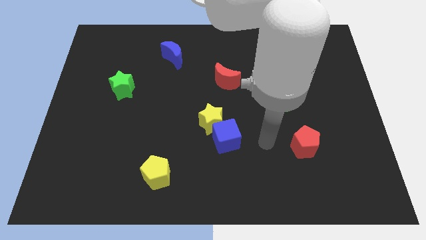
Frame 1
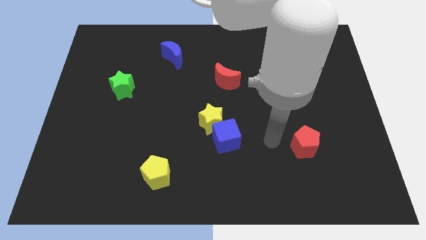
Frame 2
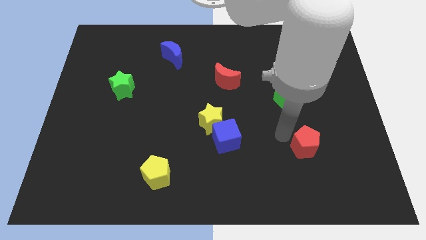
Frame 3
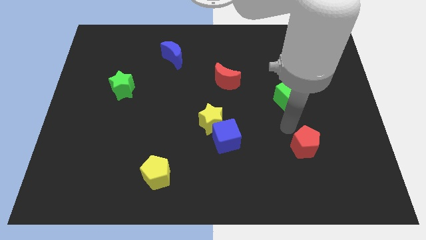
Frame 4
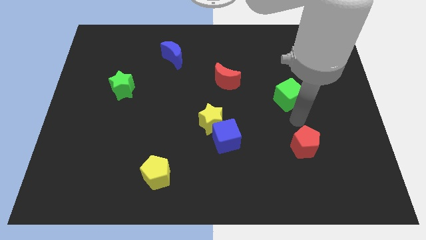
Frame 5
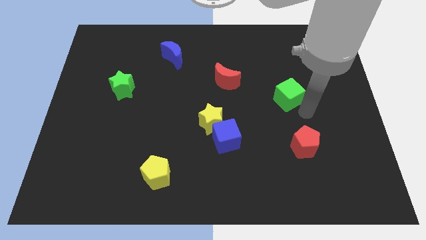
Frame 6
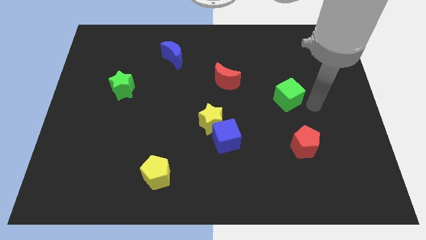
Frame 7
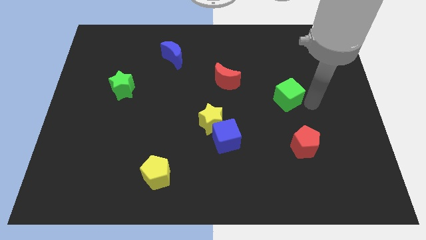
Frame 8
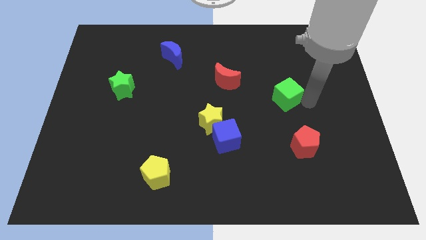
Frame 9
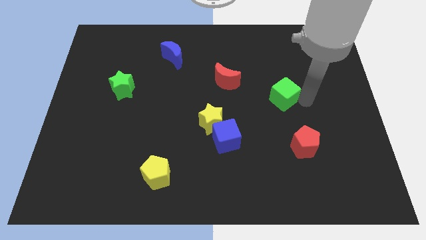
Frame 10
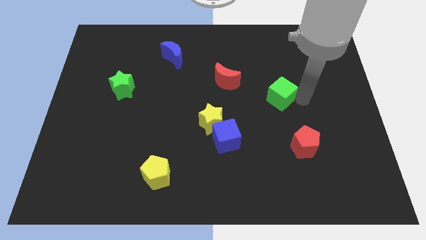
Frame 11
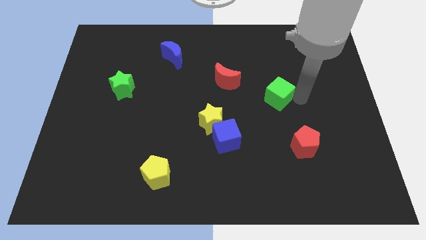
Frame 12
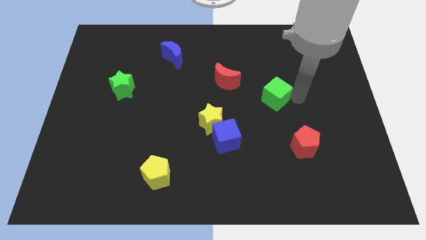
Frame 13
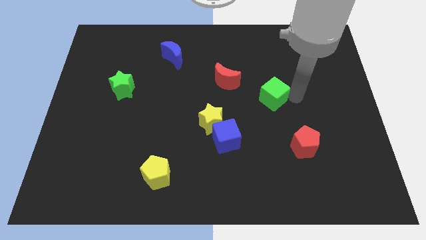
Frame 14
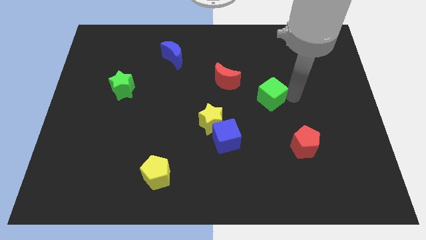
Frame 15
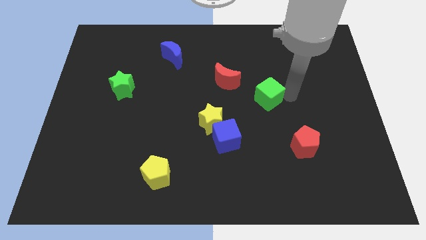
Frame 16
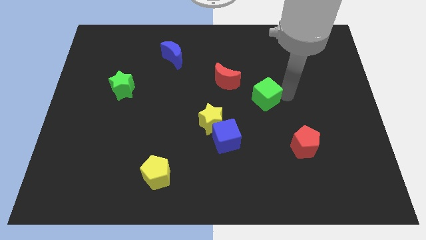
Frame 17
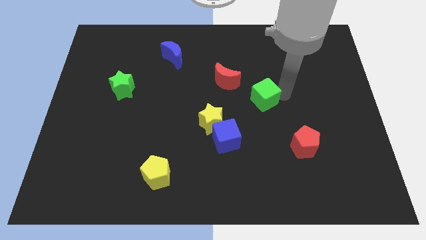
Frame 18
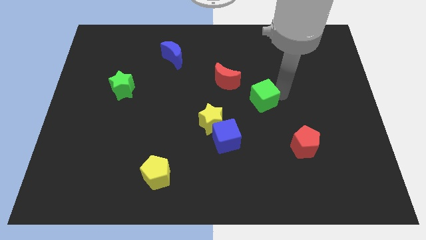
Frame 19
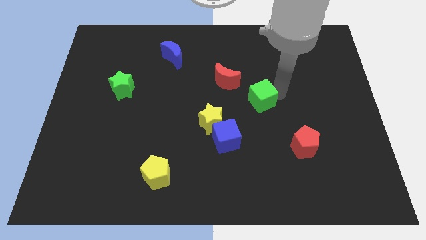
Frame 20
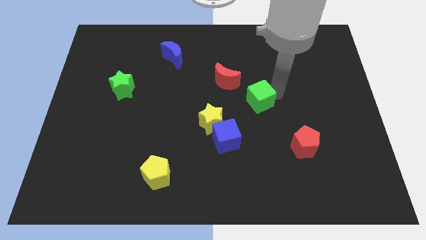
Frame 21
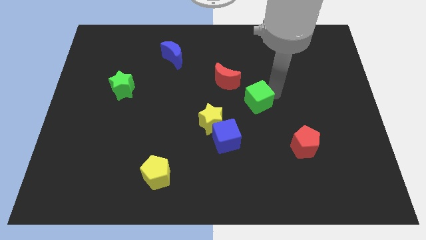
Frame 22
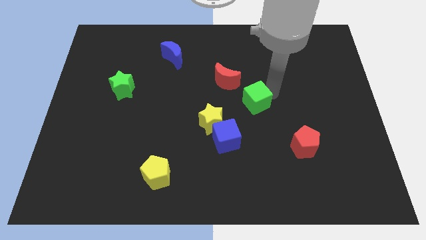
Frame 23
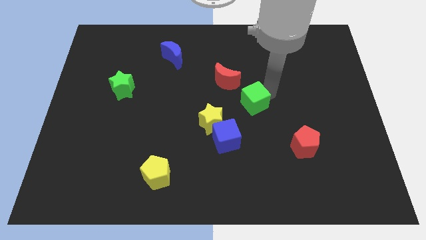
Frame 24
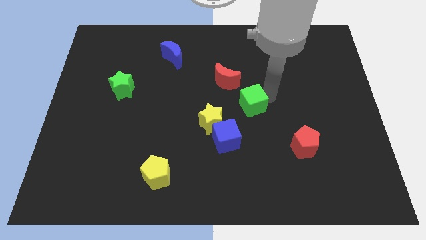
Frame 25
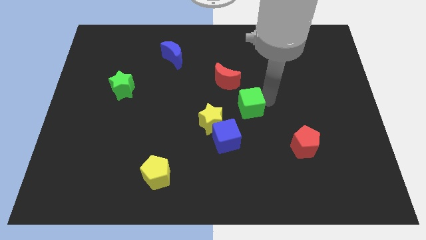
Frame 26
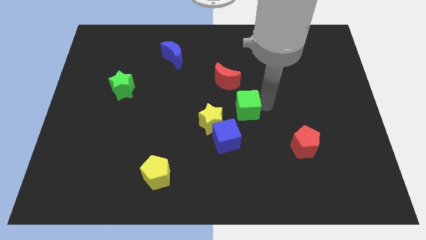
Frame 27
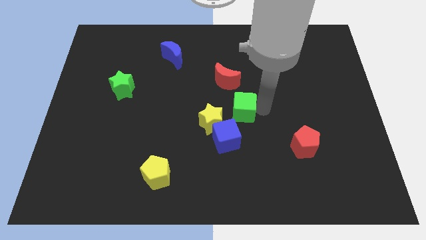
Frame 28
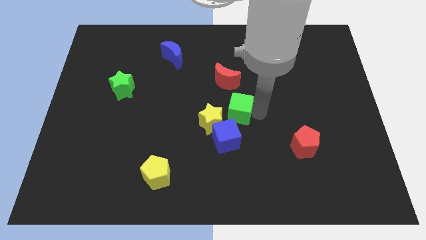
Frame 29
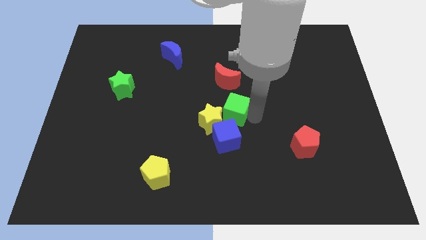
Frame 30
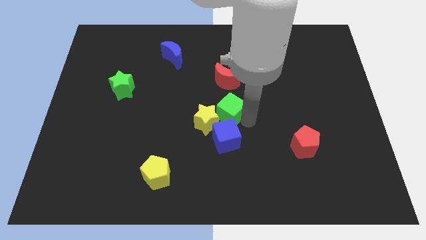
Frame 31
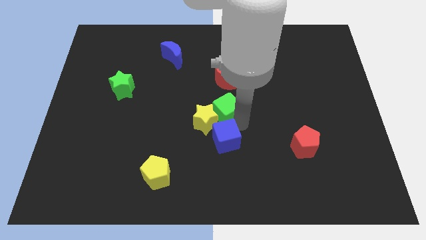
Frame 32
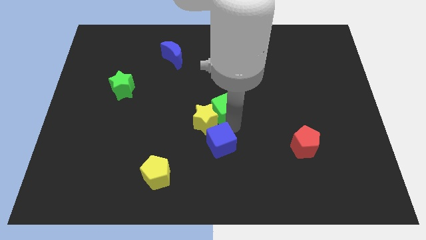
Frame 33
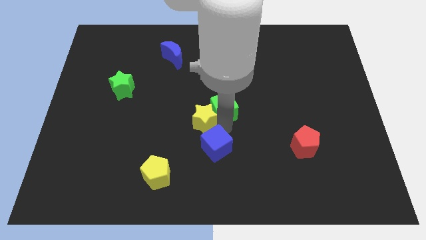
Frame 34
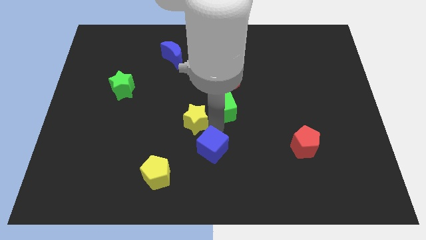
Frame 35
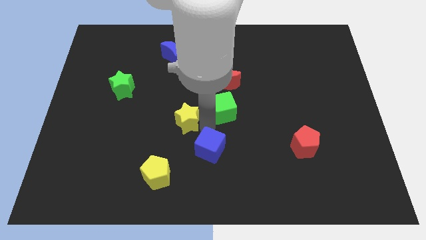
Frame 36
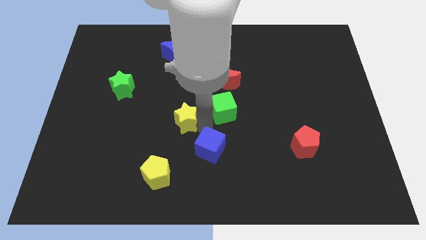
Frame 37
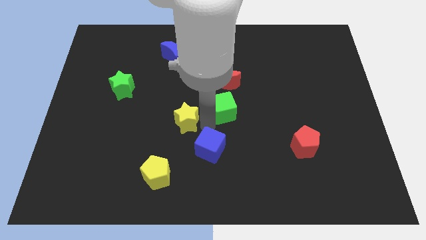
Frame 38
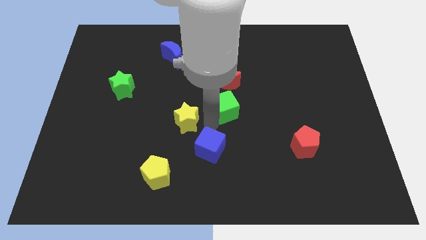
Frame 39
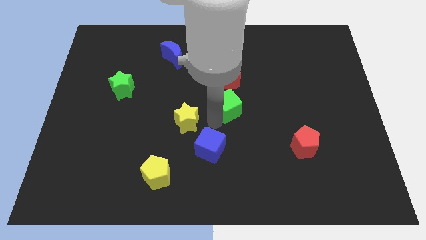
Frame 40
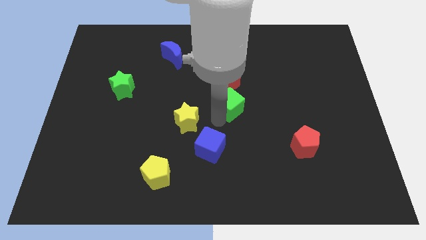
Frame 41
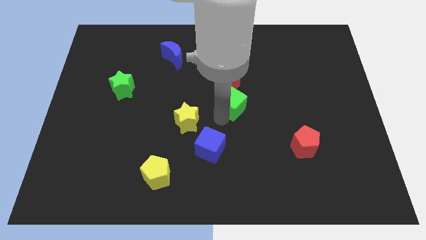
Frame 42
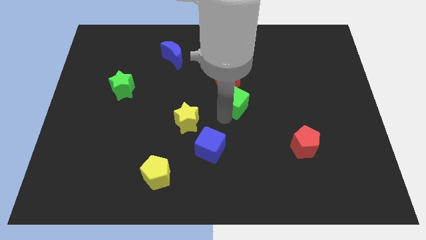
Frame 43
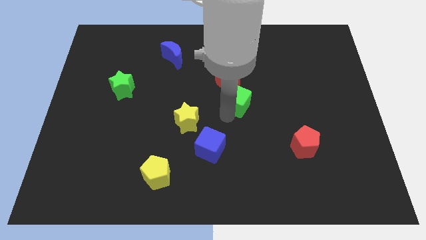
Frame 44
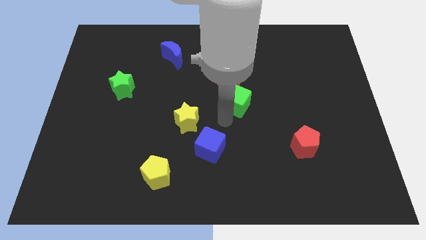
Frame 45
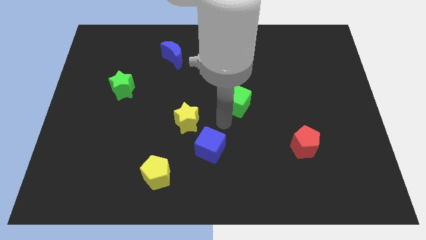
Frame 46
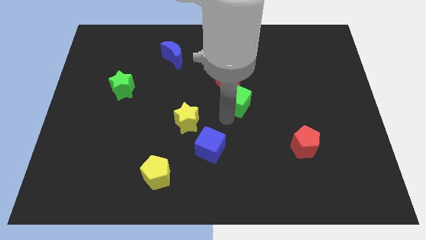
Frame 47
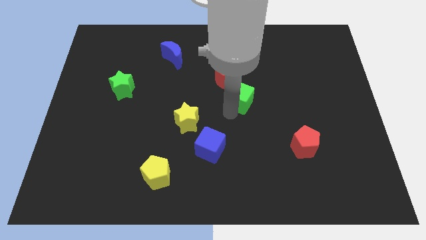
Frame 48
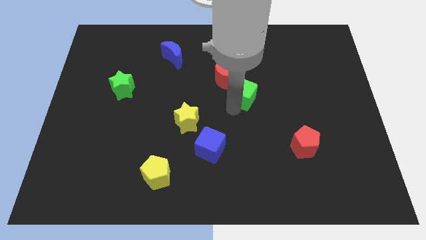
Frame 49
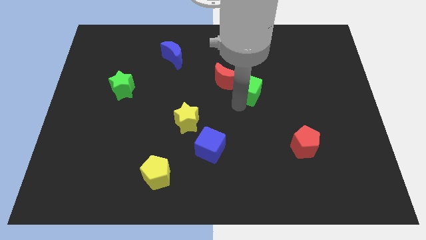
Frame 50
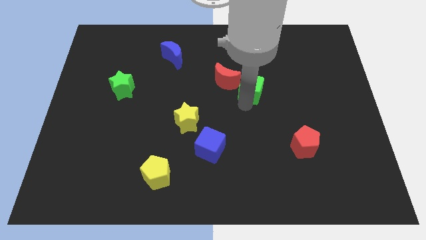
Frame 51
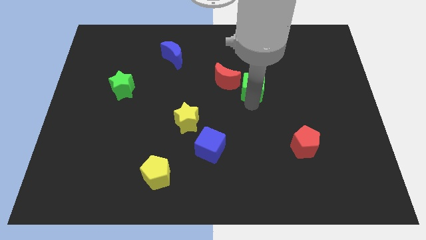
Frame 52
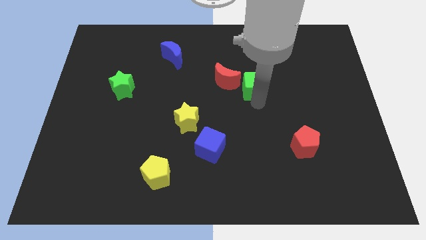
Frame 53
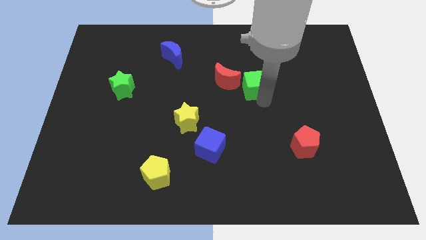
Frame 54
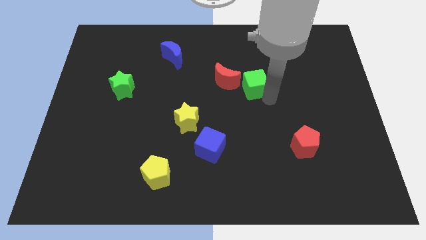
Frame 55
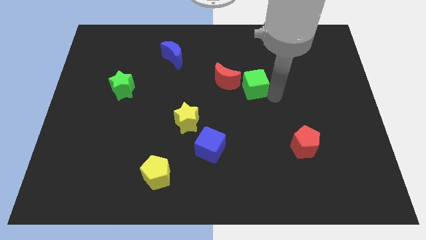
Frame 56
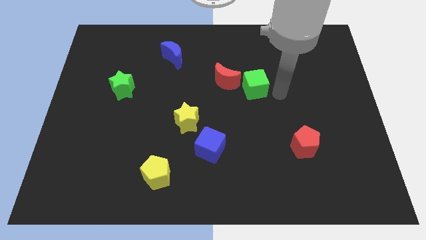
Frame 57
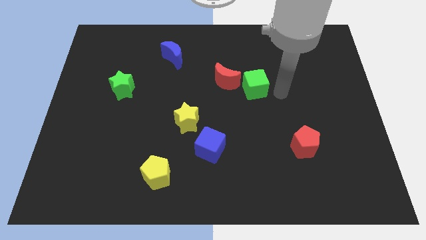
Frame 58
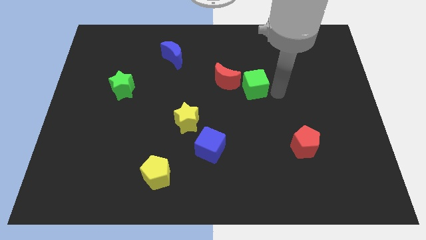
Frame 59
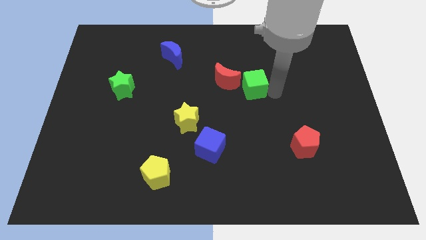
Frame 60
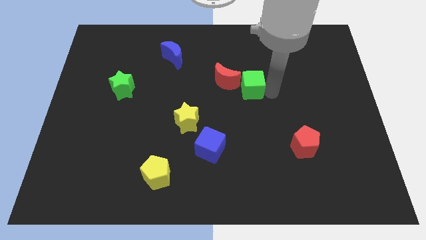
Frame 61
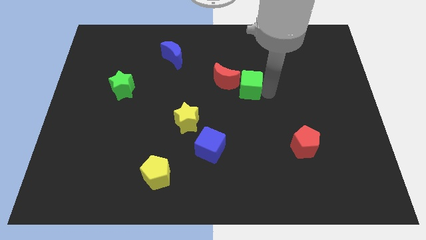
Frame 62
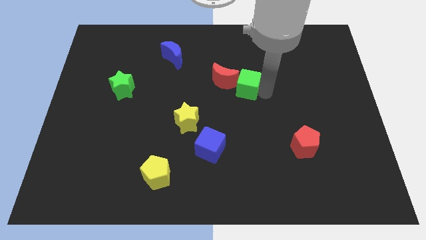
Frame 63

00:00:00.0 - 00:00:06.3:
push the green cube to the red moon

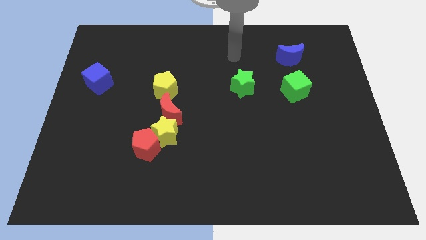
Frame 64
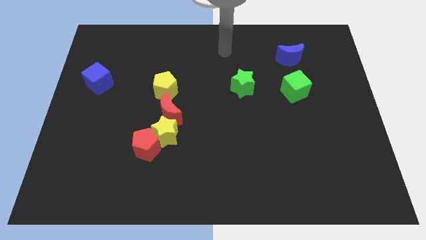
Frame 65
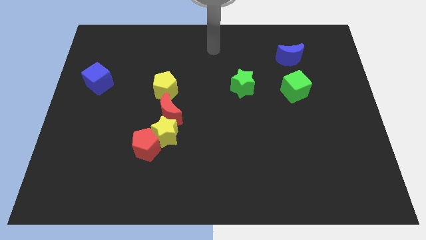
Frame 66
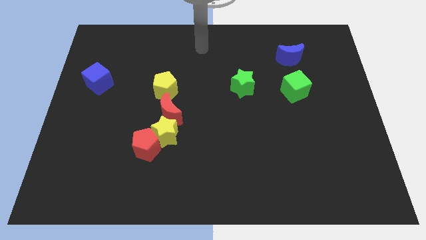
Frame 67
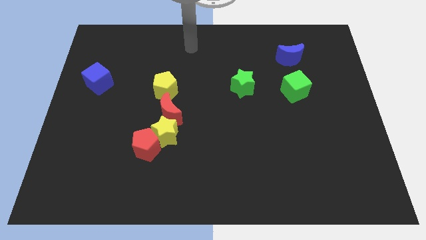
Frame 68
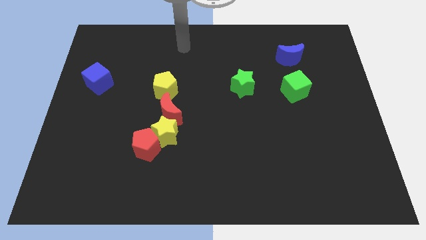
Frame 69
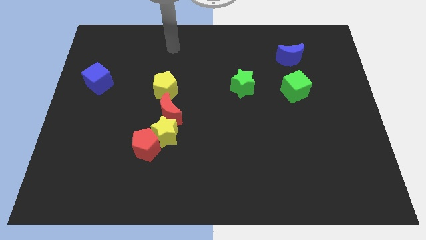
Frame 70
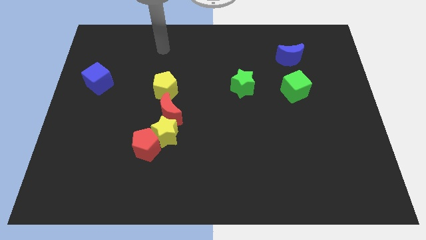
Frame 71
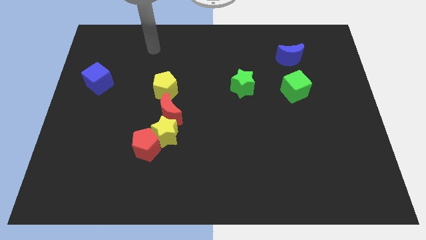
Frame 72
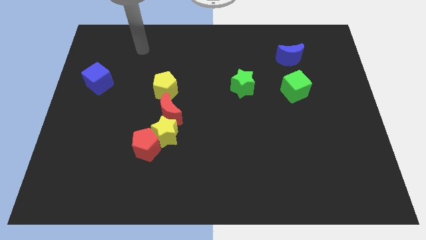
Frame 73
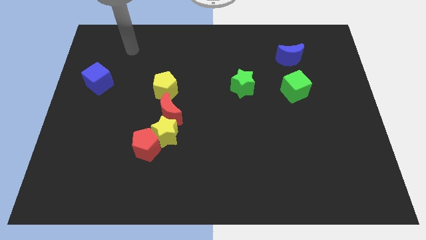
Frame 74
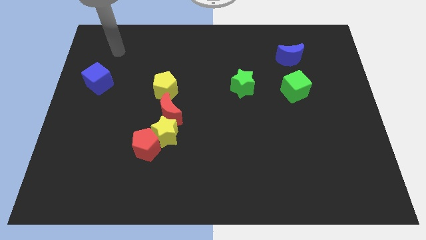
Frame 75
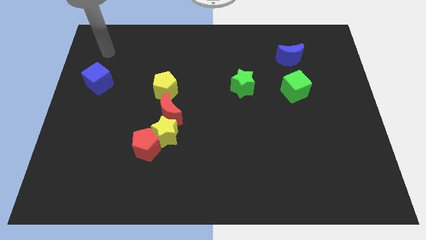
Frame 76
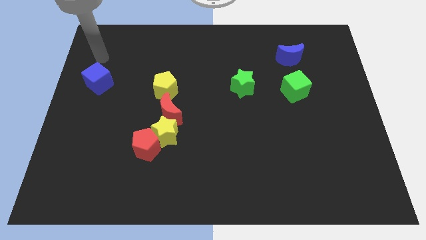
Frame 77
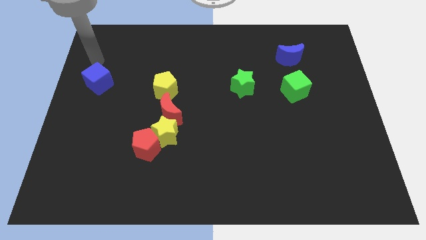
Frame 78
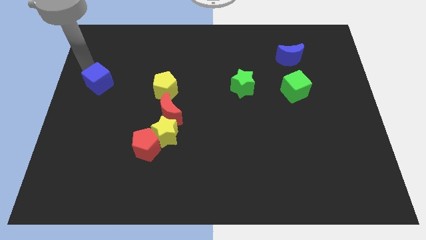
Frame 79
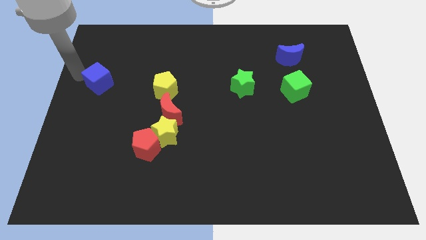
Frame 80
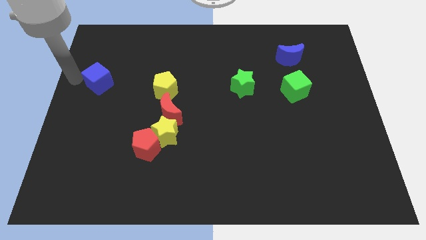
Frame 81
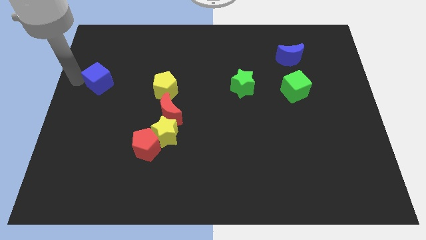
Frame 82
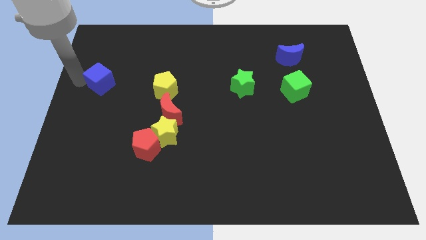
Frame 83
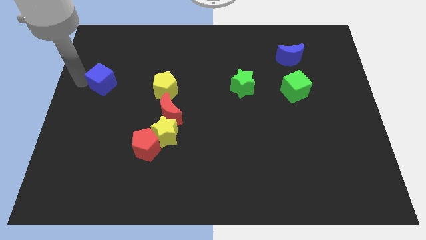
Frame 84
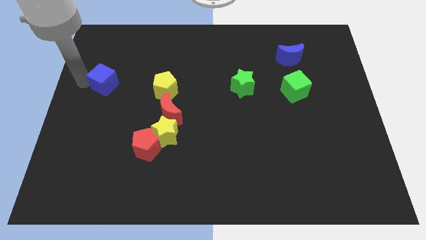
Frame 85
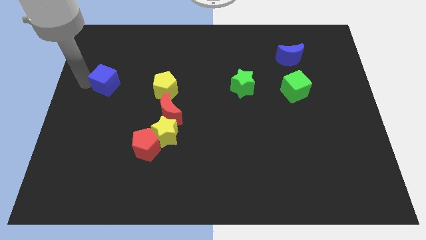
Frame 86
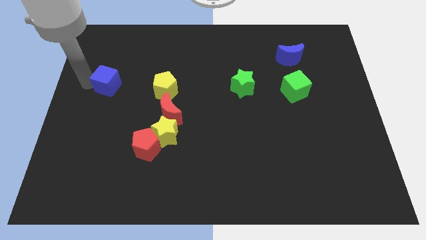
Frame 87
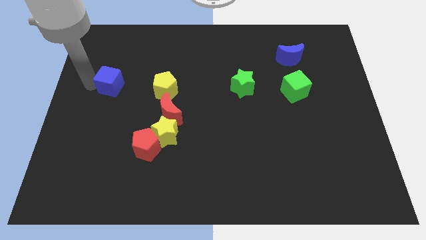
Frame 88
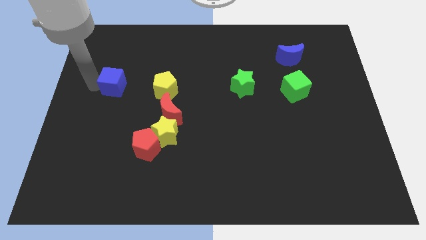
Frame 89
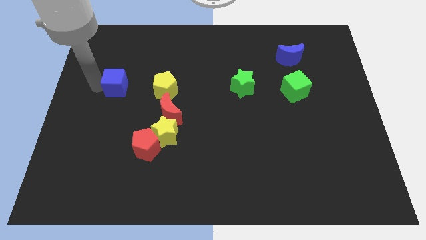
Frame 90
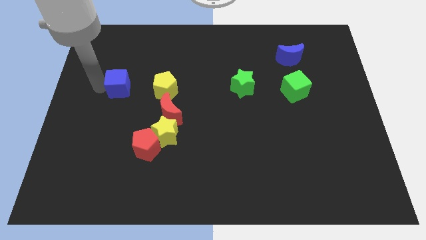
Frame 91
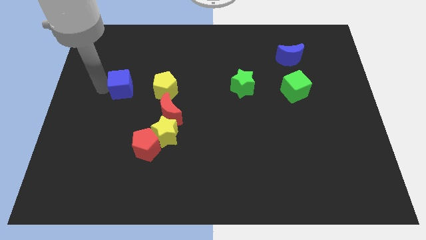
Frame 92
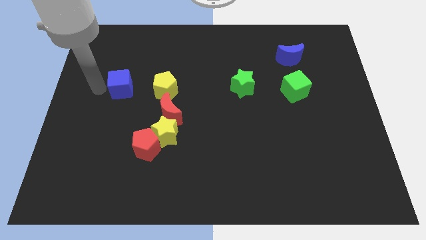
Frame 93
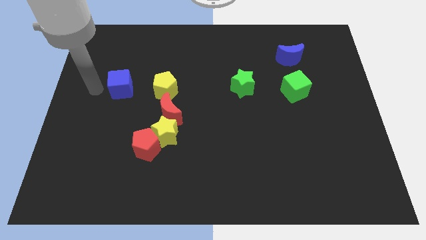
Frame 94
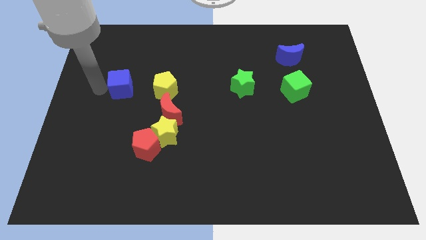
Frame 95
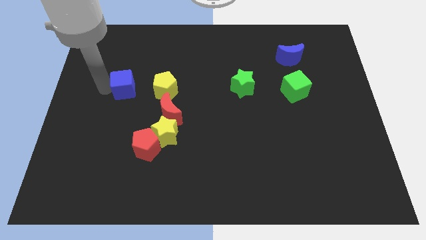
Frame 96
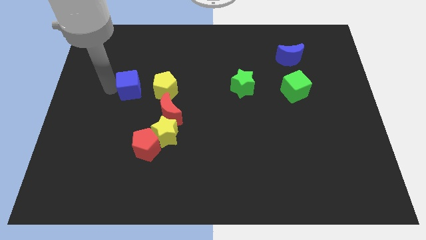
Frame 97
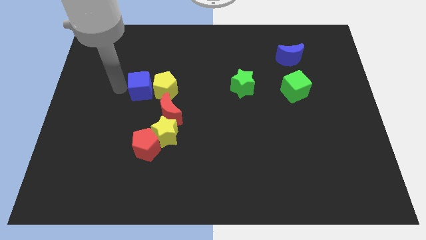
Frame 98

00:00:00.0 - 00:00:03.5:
slide the blue cube close to the yellow pentagon
